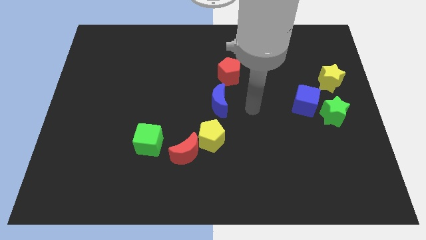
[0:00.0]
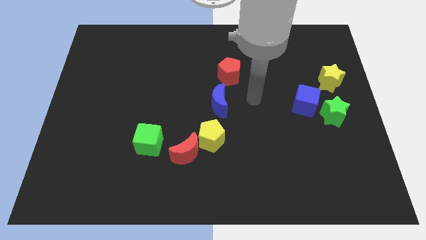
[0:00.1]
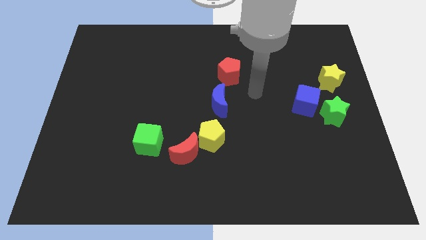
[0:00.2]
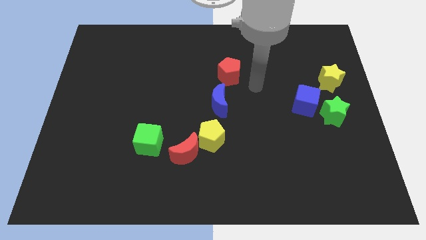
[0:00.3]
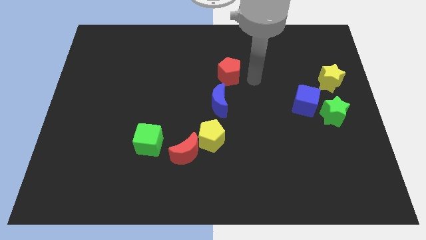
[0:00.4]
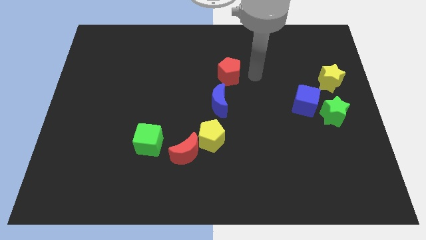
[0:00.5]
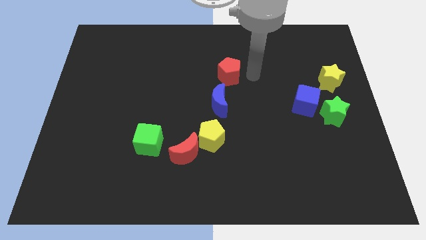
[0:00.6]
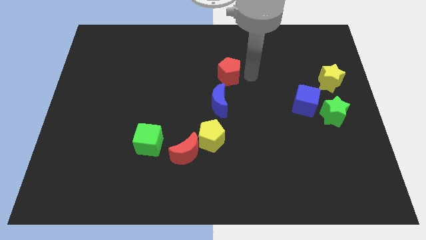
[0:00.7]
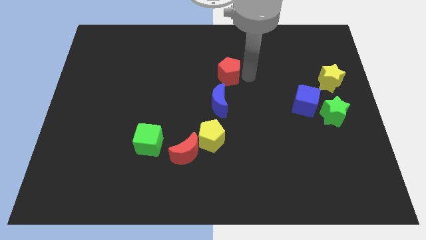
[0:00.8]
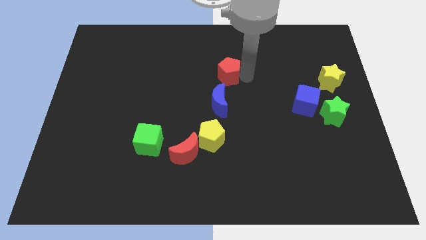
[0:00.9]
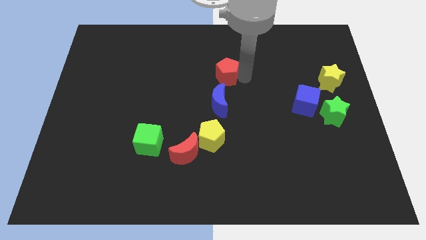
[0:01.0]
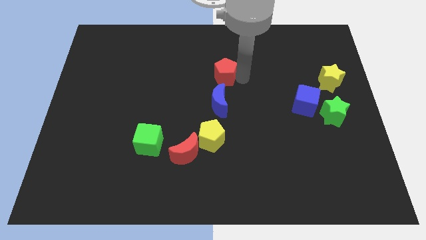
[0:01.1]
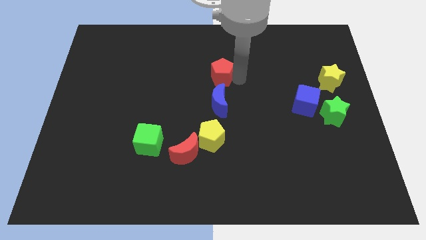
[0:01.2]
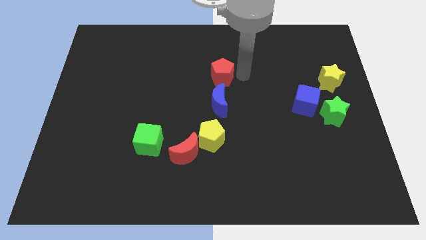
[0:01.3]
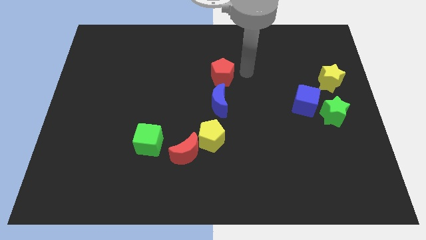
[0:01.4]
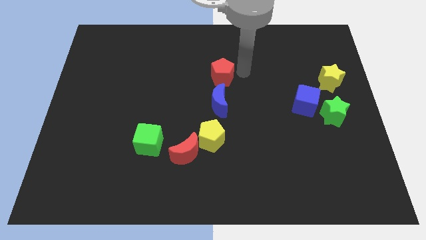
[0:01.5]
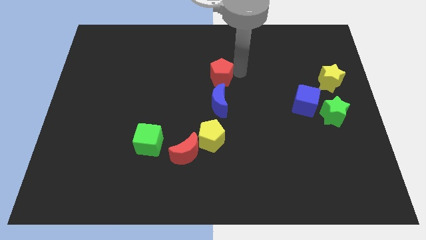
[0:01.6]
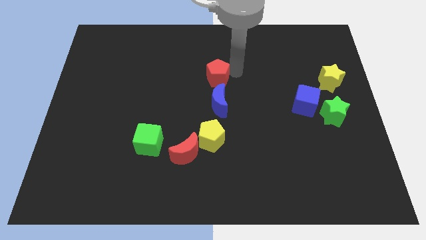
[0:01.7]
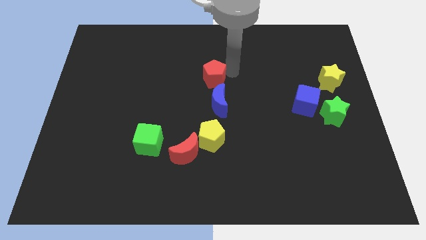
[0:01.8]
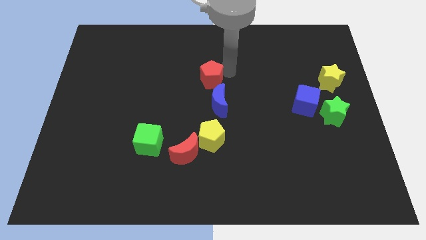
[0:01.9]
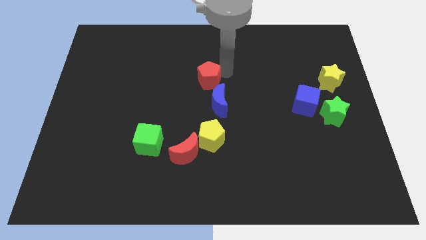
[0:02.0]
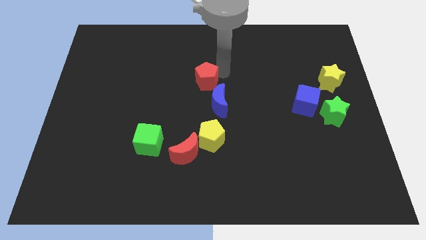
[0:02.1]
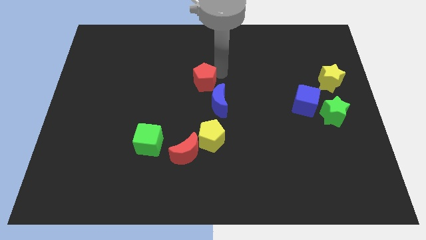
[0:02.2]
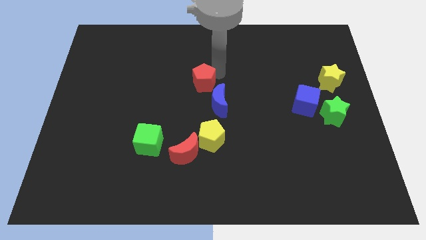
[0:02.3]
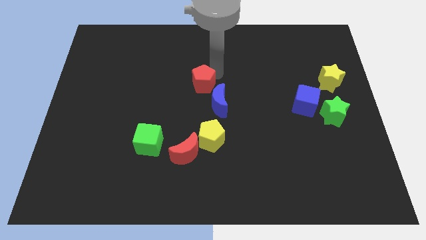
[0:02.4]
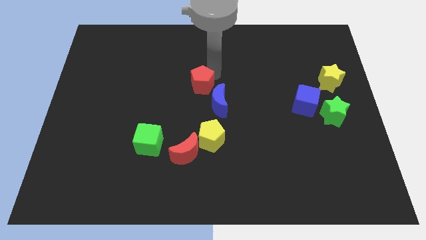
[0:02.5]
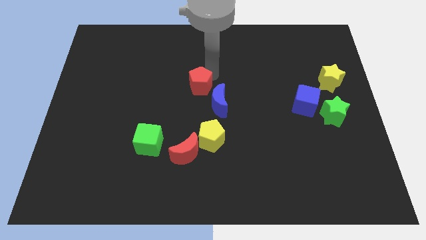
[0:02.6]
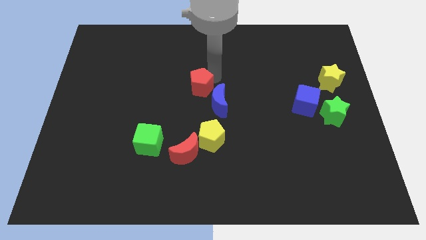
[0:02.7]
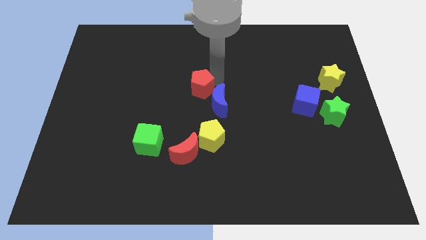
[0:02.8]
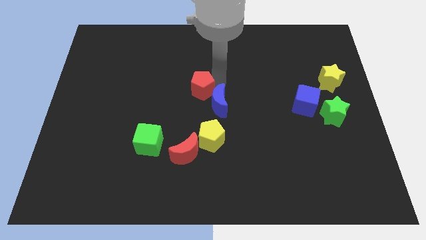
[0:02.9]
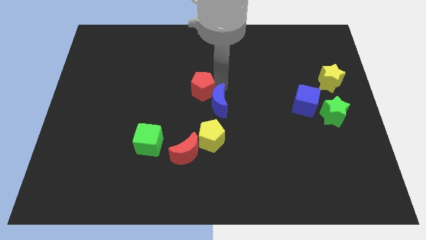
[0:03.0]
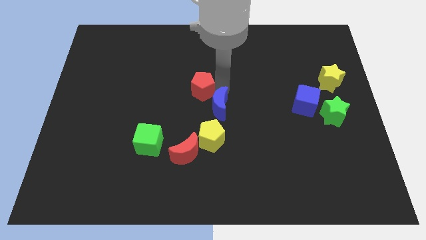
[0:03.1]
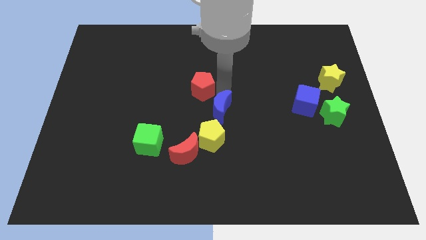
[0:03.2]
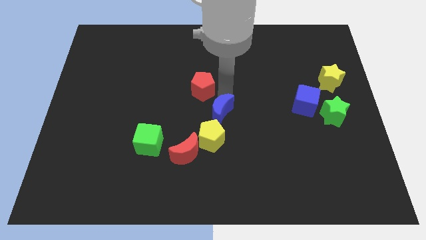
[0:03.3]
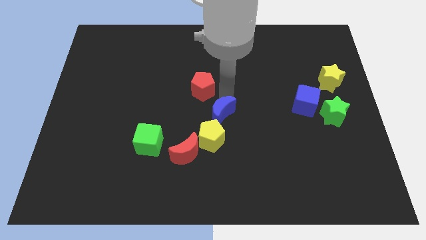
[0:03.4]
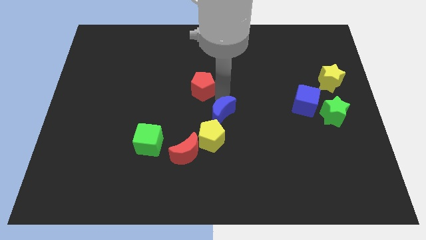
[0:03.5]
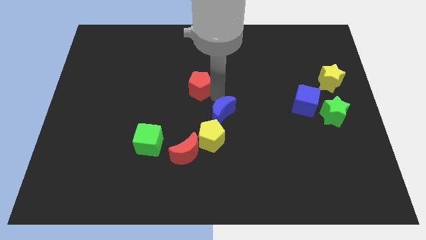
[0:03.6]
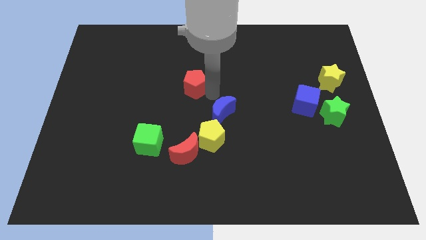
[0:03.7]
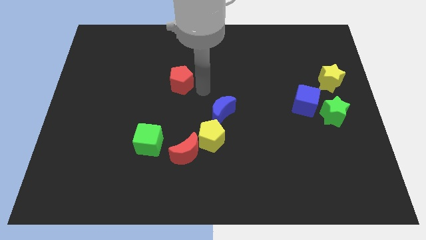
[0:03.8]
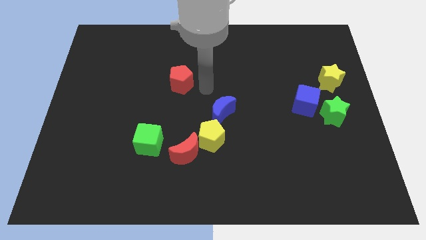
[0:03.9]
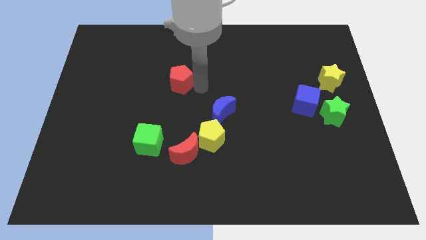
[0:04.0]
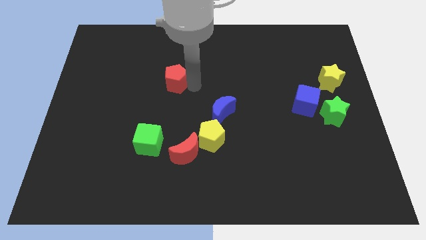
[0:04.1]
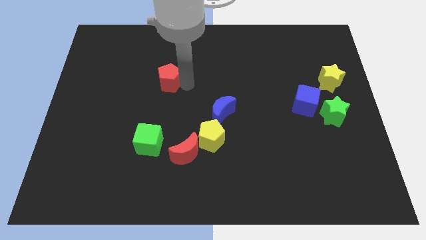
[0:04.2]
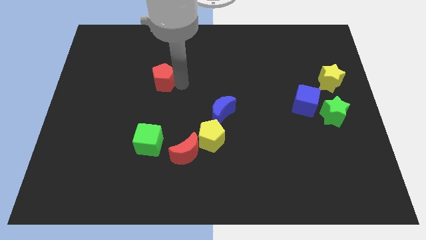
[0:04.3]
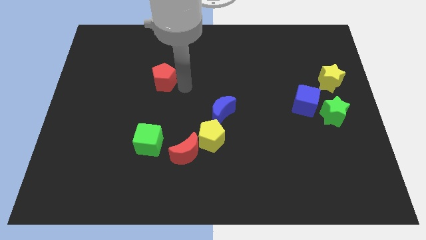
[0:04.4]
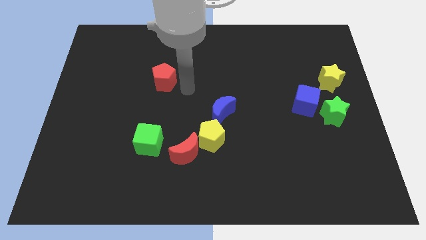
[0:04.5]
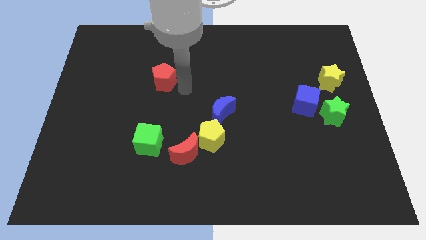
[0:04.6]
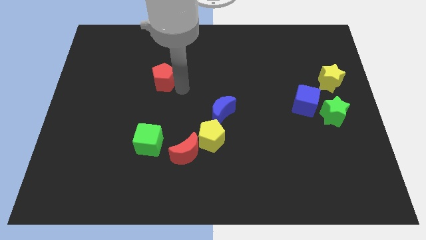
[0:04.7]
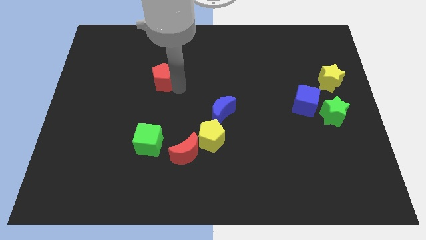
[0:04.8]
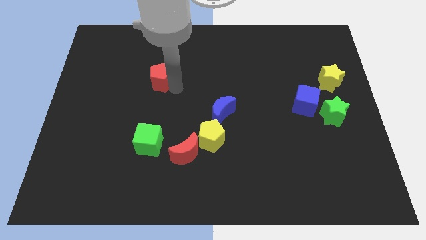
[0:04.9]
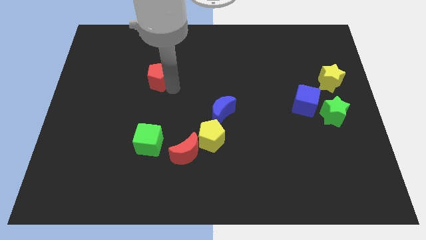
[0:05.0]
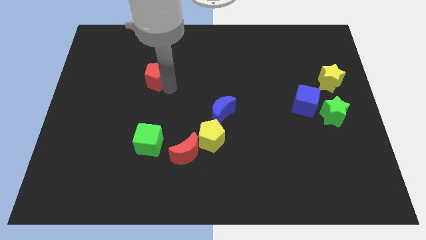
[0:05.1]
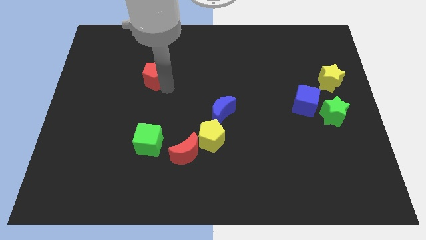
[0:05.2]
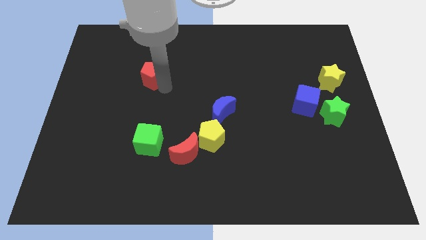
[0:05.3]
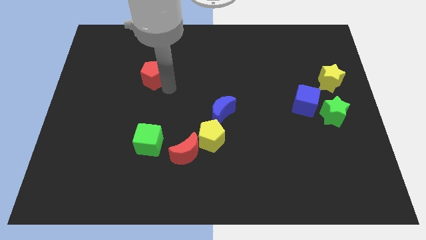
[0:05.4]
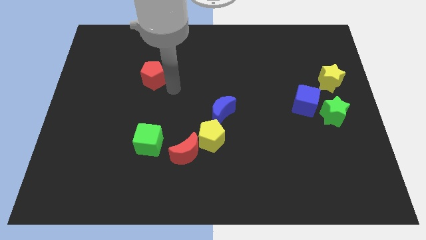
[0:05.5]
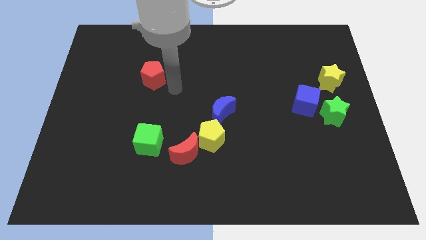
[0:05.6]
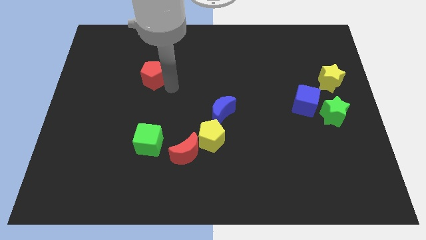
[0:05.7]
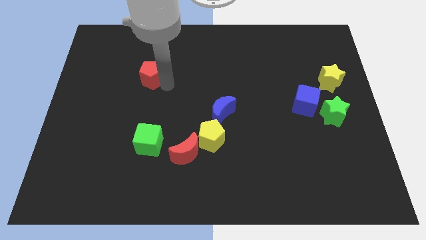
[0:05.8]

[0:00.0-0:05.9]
slide the red pentagon to the left

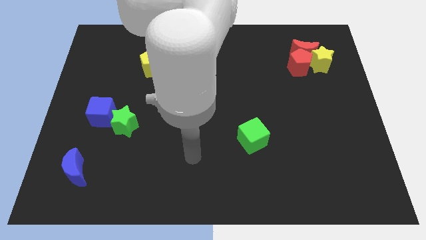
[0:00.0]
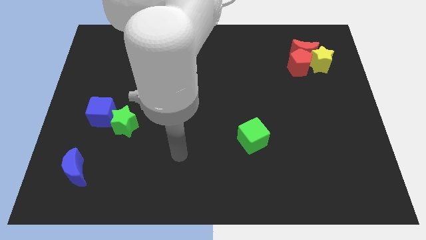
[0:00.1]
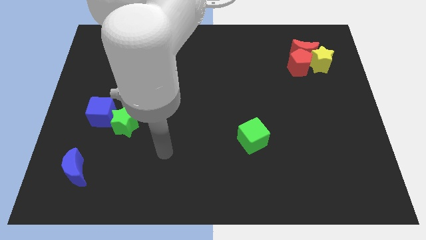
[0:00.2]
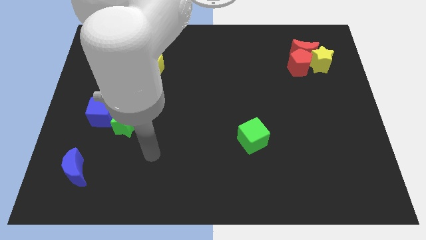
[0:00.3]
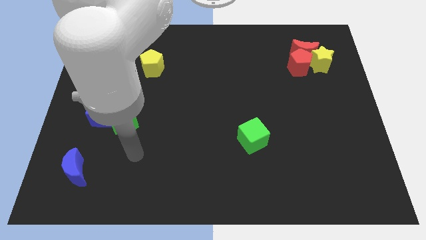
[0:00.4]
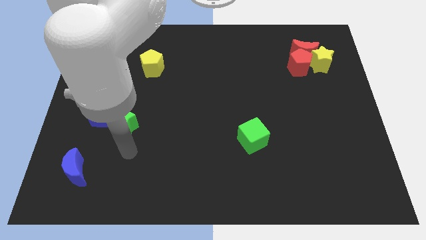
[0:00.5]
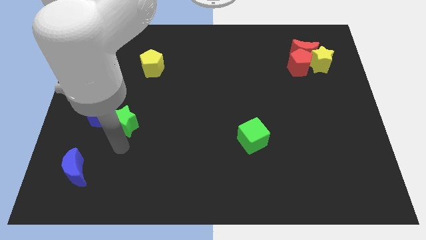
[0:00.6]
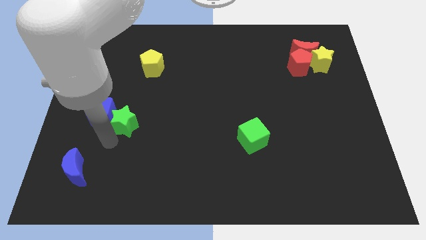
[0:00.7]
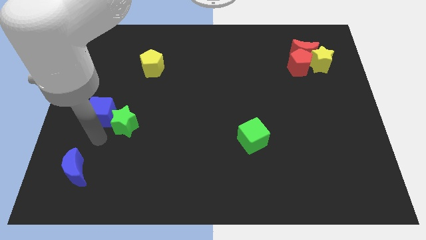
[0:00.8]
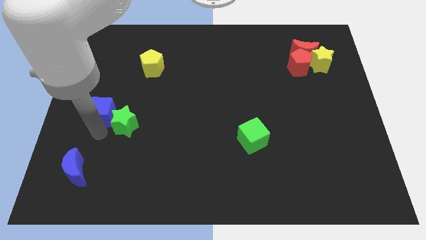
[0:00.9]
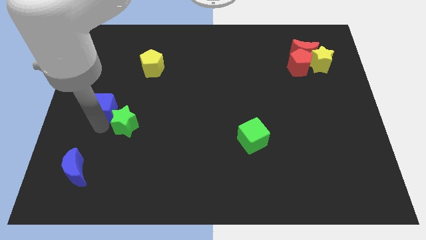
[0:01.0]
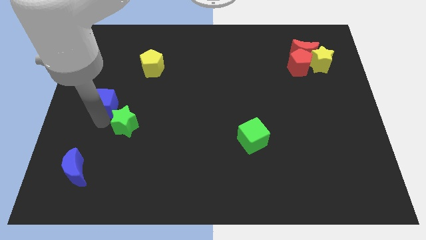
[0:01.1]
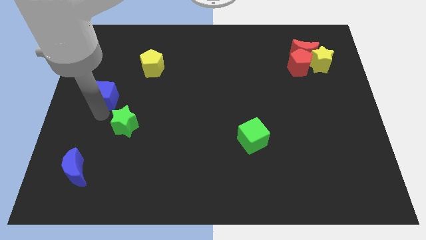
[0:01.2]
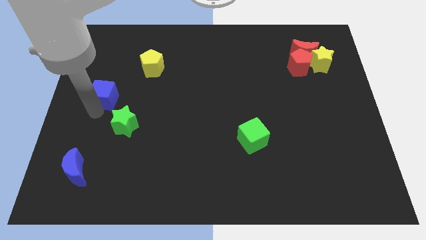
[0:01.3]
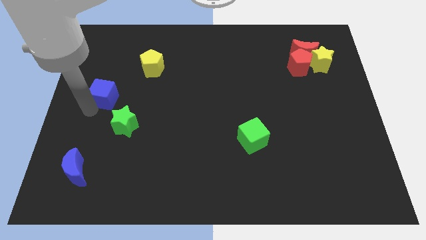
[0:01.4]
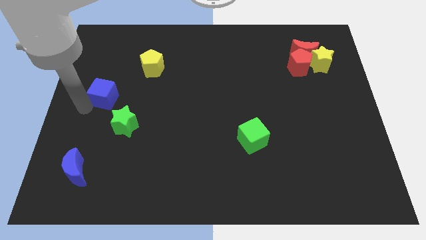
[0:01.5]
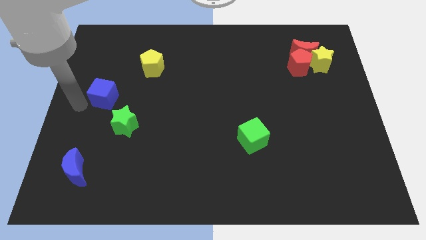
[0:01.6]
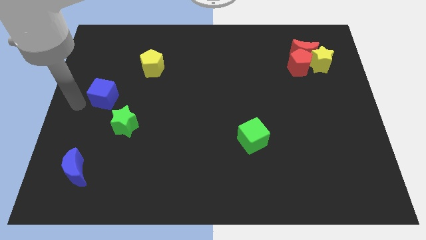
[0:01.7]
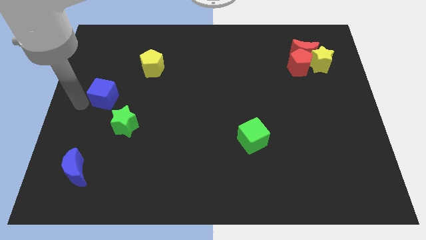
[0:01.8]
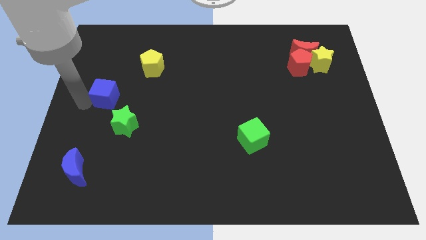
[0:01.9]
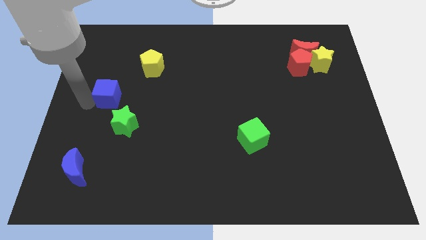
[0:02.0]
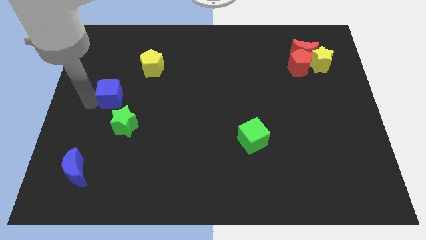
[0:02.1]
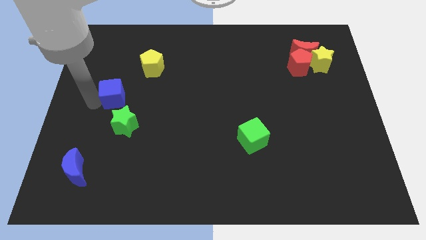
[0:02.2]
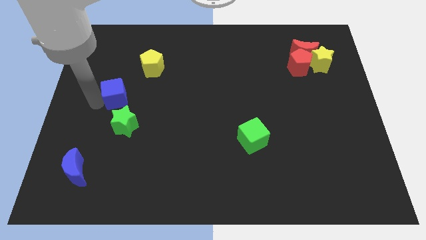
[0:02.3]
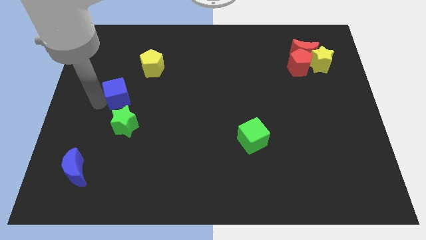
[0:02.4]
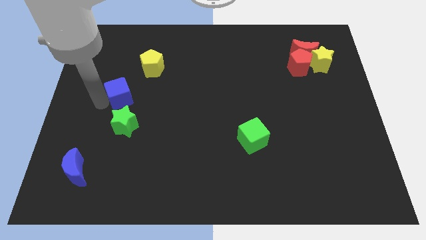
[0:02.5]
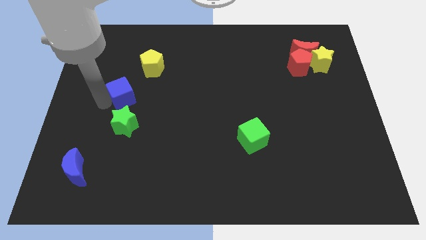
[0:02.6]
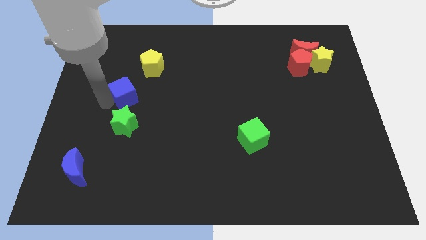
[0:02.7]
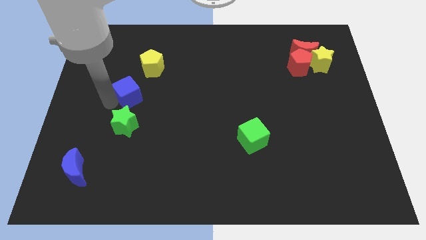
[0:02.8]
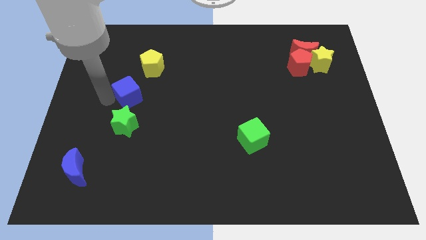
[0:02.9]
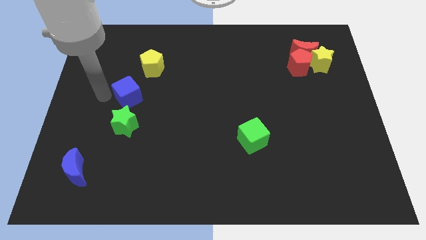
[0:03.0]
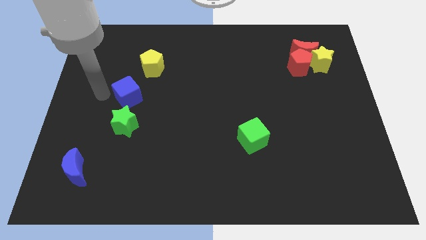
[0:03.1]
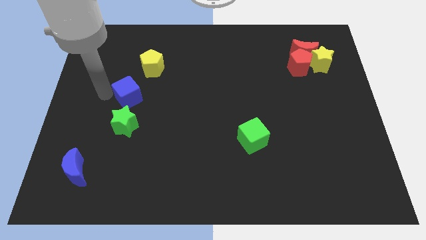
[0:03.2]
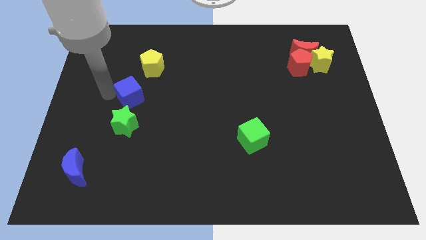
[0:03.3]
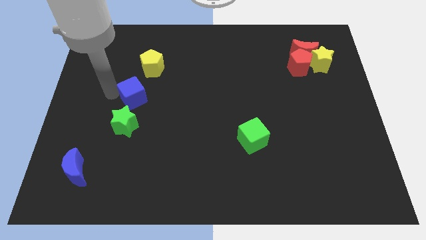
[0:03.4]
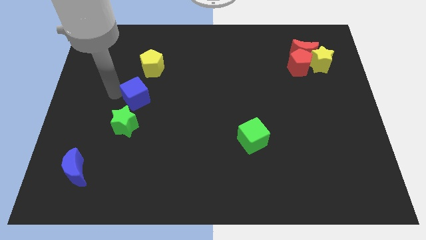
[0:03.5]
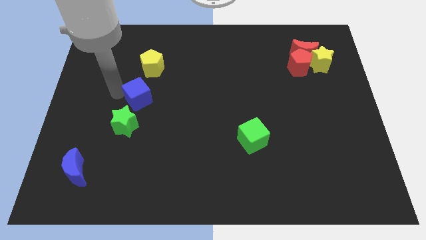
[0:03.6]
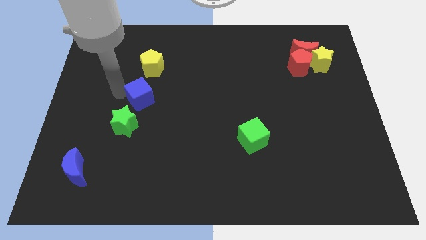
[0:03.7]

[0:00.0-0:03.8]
move the blue cube a little right
